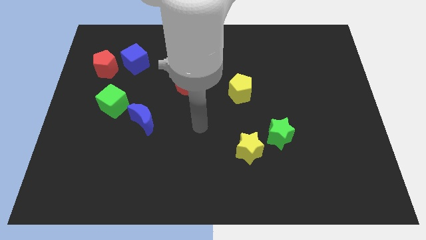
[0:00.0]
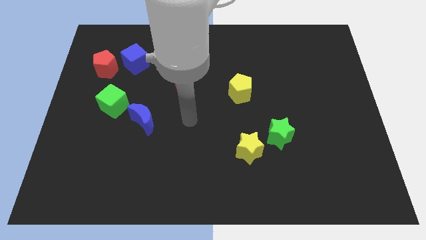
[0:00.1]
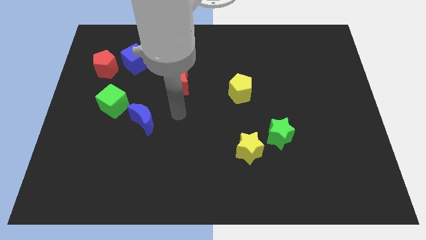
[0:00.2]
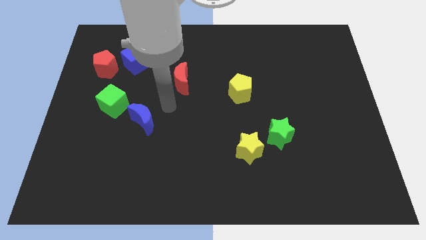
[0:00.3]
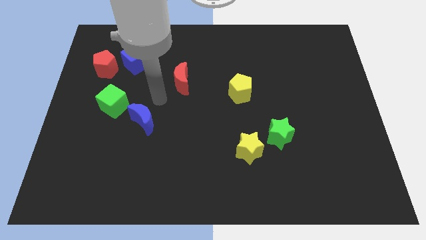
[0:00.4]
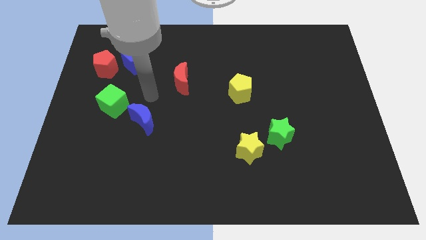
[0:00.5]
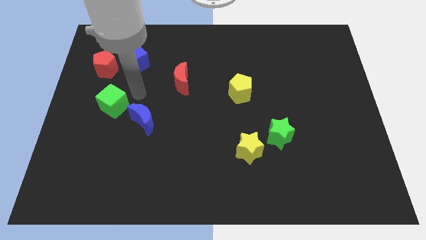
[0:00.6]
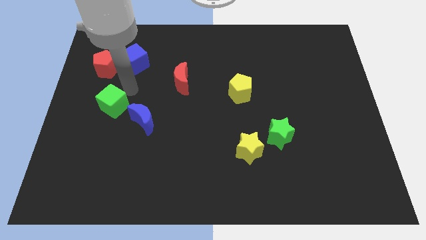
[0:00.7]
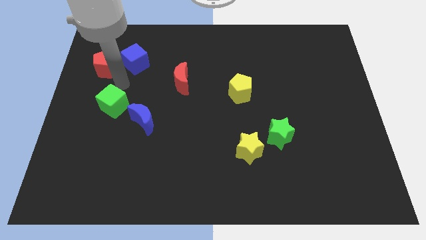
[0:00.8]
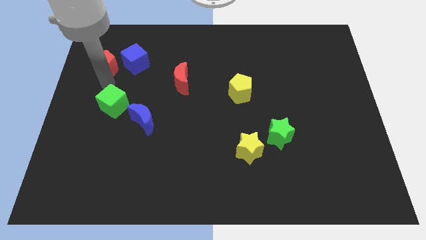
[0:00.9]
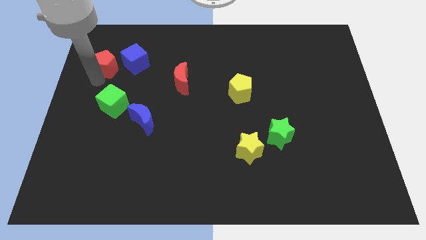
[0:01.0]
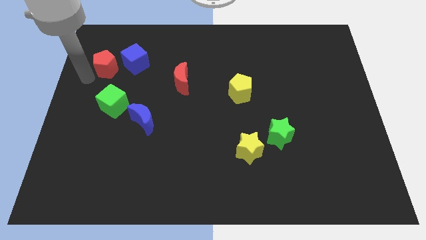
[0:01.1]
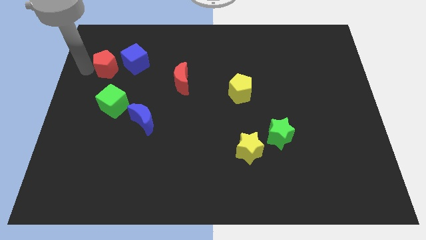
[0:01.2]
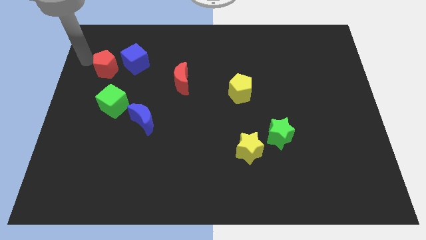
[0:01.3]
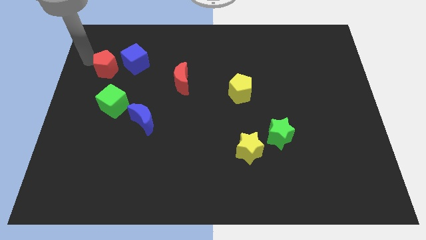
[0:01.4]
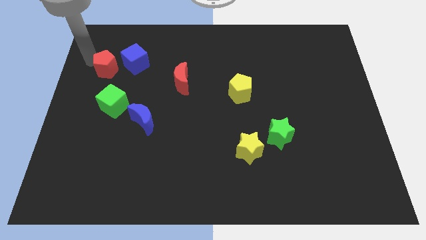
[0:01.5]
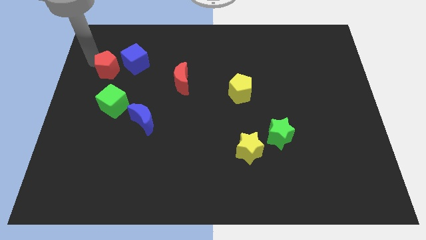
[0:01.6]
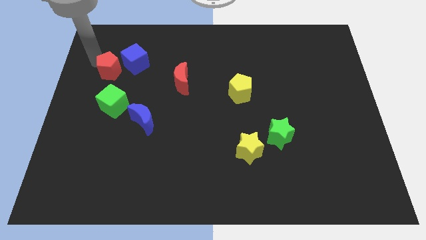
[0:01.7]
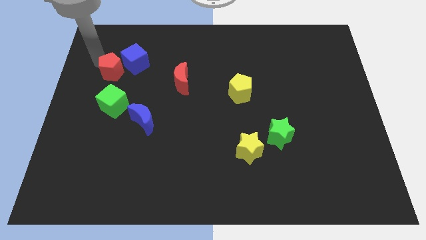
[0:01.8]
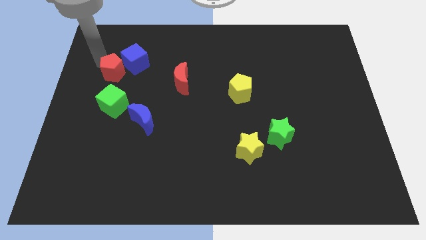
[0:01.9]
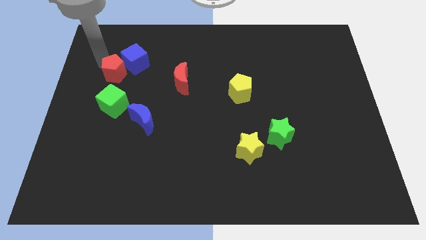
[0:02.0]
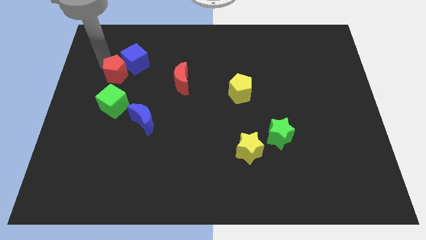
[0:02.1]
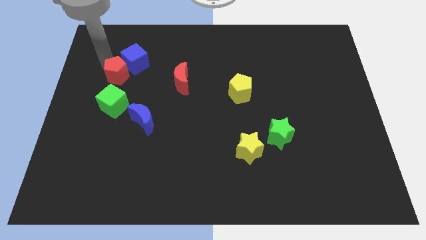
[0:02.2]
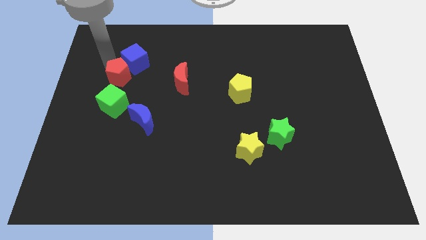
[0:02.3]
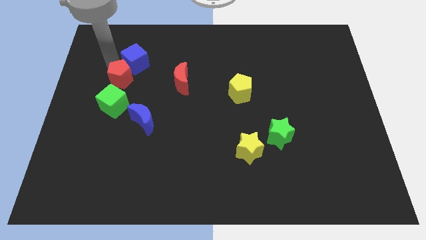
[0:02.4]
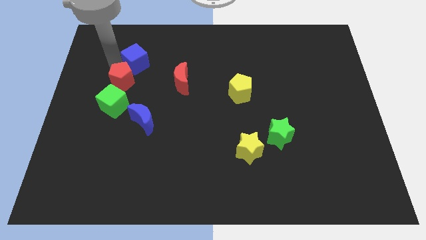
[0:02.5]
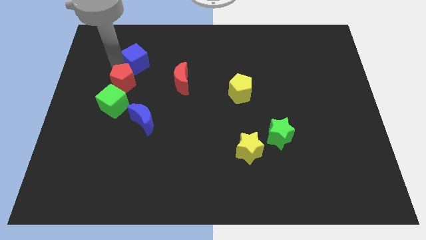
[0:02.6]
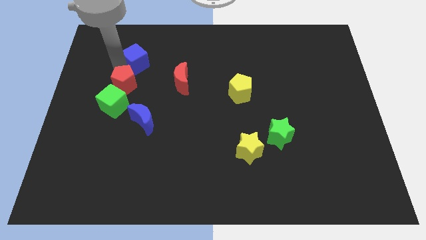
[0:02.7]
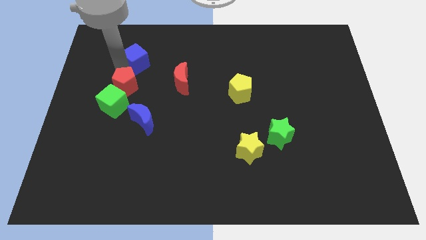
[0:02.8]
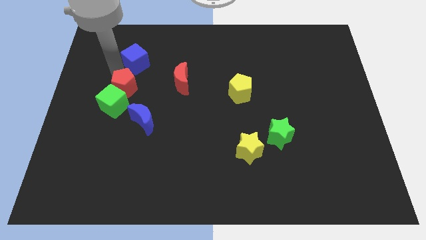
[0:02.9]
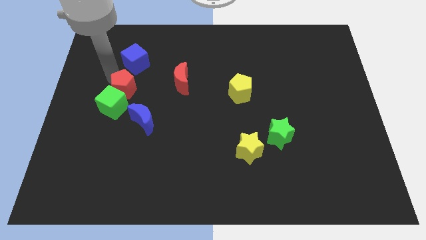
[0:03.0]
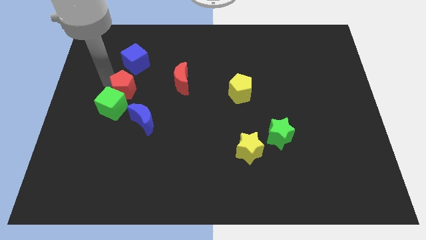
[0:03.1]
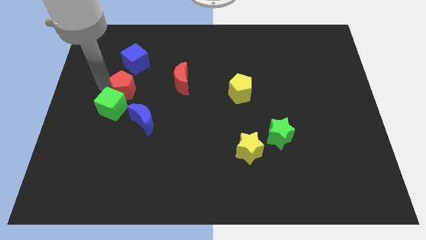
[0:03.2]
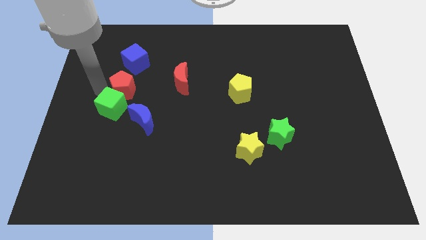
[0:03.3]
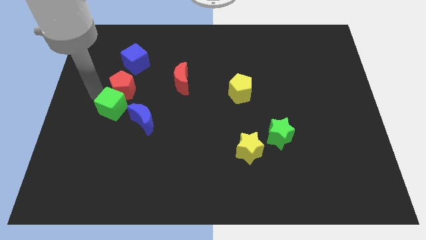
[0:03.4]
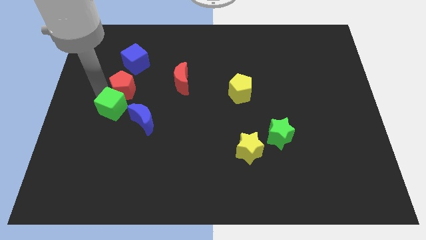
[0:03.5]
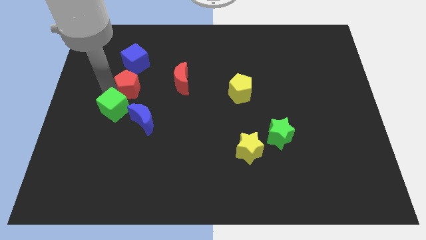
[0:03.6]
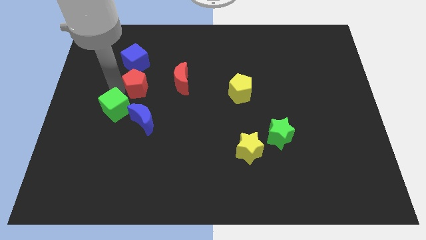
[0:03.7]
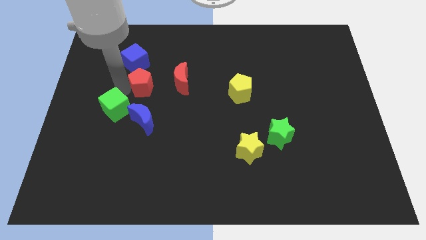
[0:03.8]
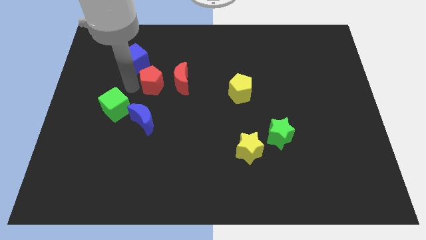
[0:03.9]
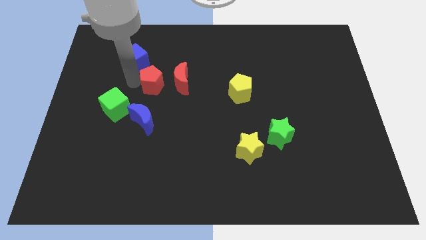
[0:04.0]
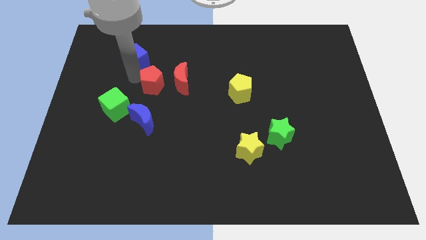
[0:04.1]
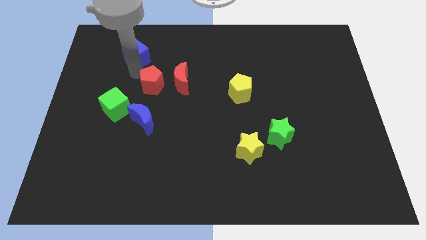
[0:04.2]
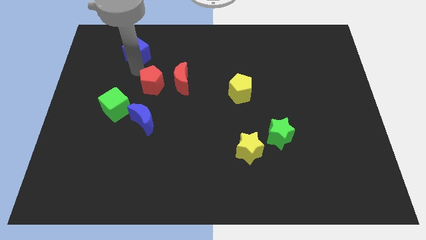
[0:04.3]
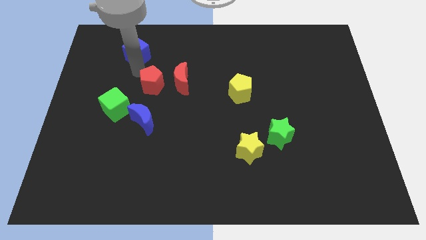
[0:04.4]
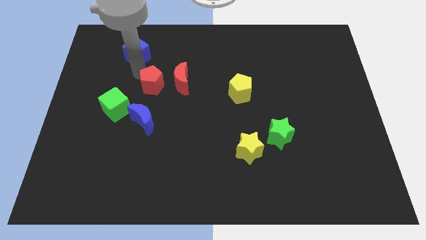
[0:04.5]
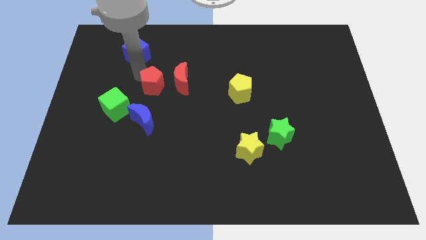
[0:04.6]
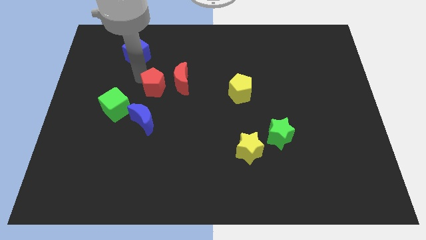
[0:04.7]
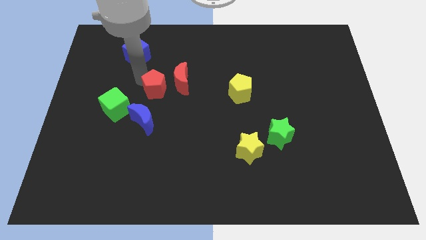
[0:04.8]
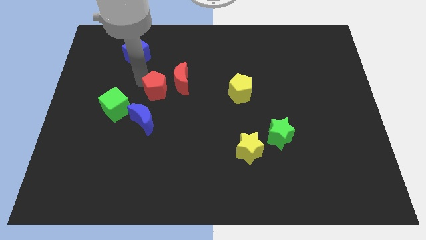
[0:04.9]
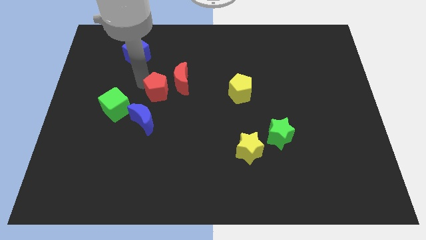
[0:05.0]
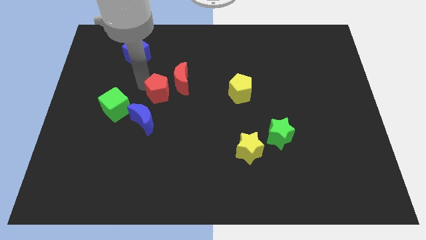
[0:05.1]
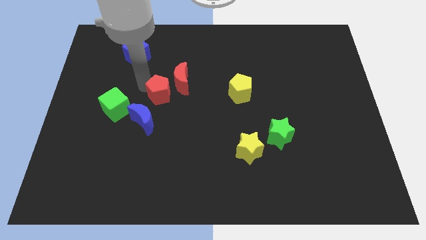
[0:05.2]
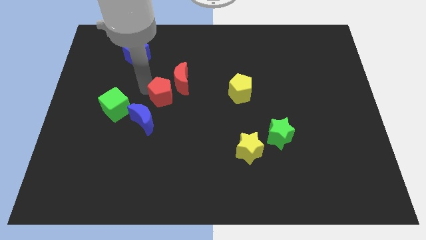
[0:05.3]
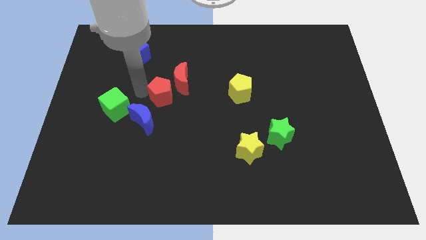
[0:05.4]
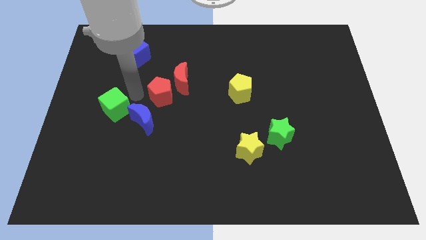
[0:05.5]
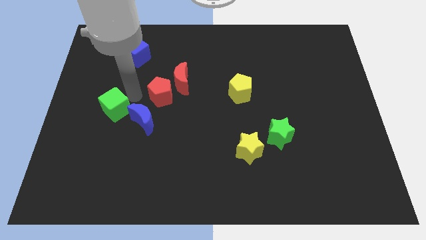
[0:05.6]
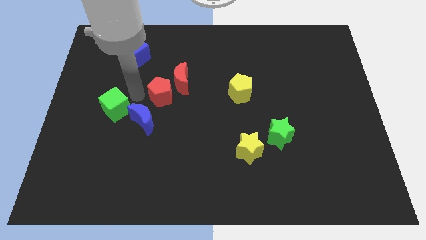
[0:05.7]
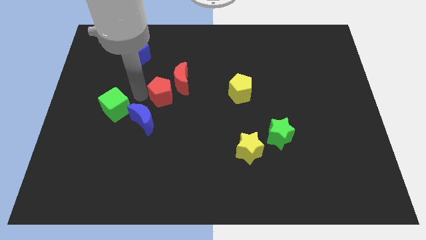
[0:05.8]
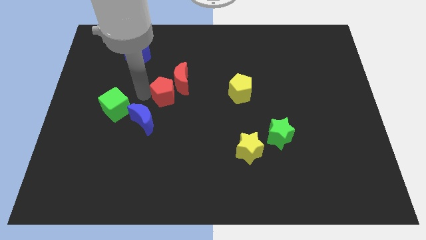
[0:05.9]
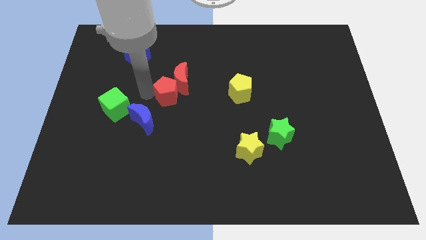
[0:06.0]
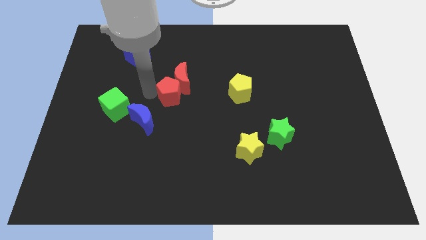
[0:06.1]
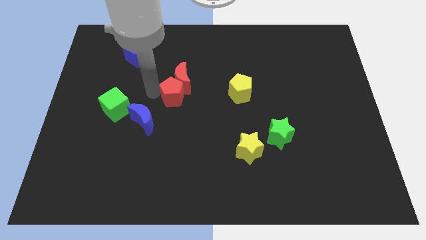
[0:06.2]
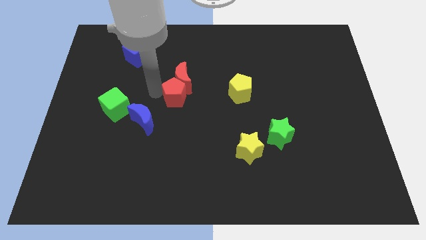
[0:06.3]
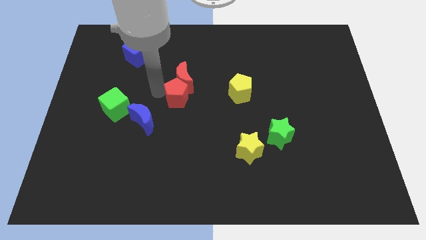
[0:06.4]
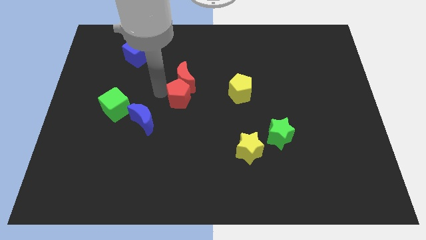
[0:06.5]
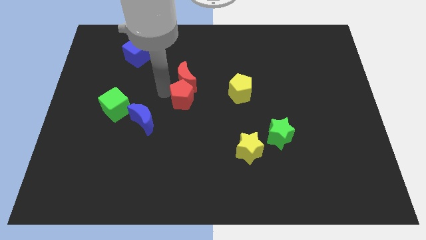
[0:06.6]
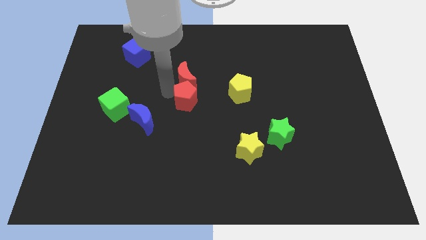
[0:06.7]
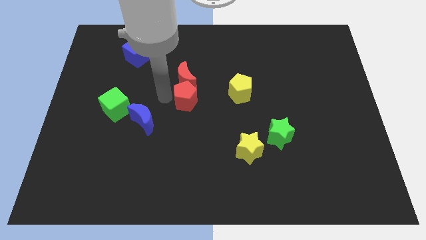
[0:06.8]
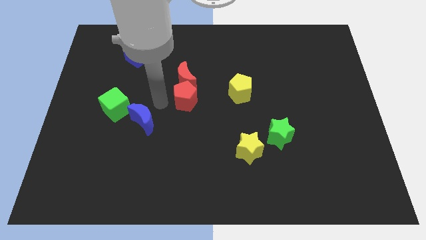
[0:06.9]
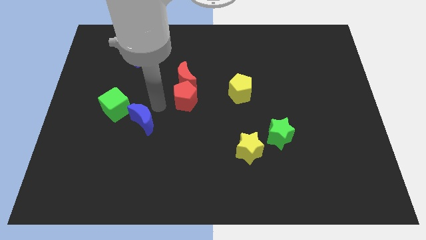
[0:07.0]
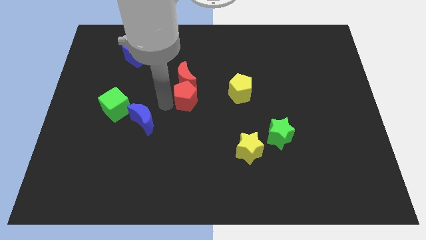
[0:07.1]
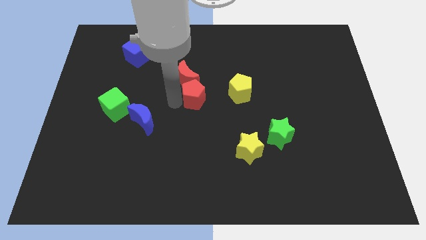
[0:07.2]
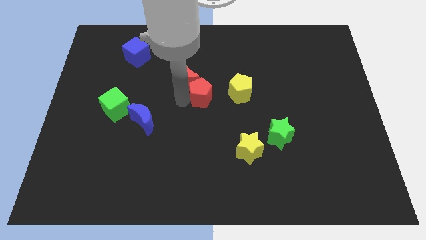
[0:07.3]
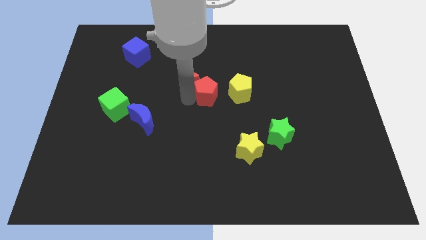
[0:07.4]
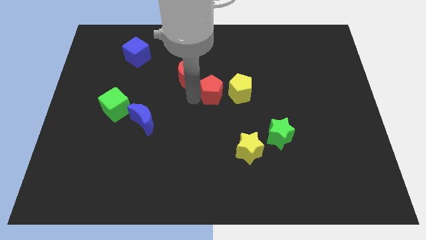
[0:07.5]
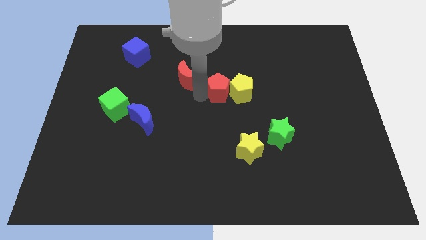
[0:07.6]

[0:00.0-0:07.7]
put the red pentagon close to the yellow pentagon
